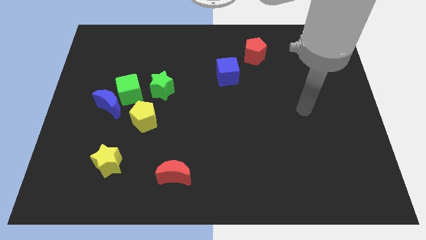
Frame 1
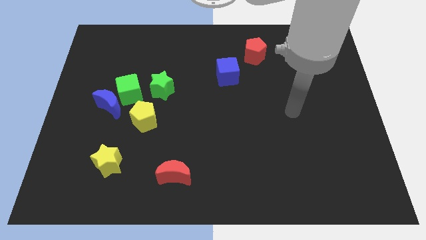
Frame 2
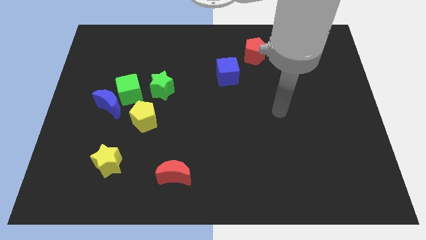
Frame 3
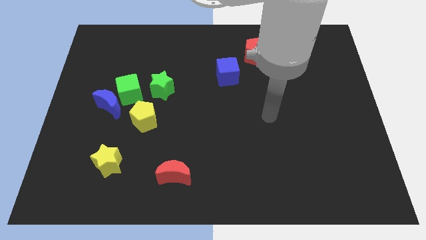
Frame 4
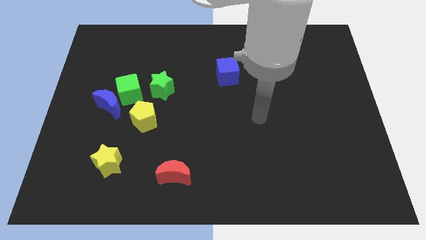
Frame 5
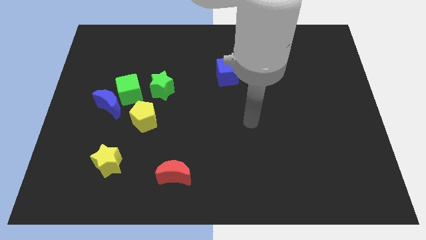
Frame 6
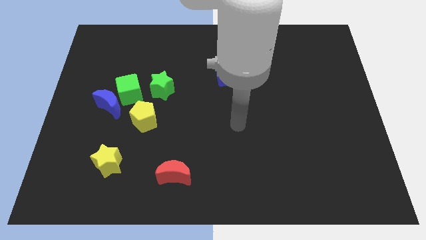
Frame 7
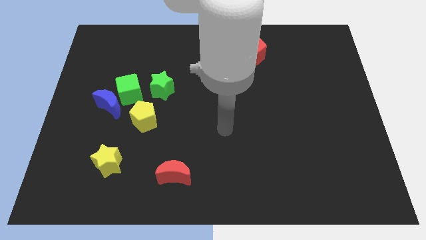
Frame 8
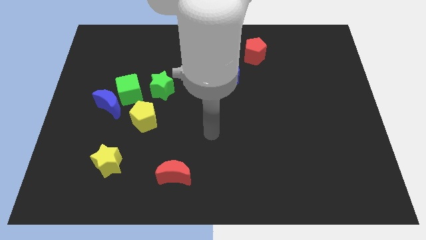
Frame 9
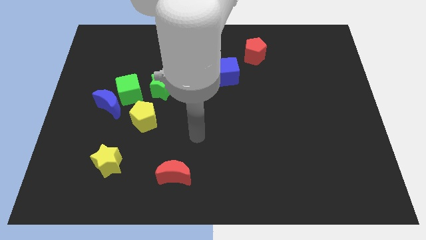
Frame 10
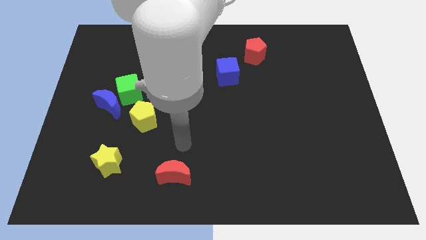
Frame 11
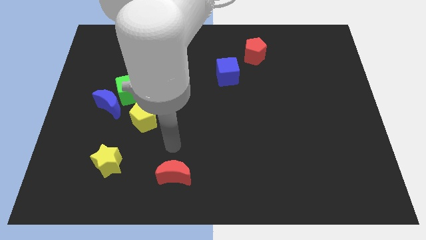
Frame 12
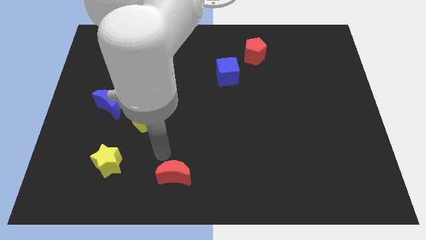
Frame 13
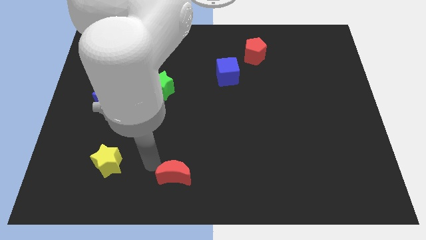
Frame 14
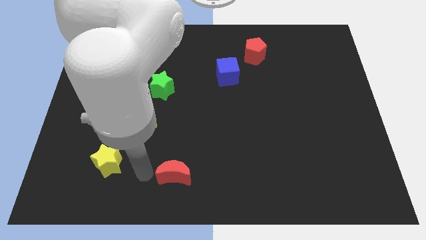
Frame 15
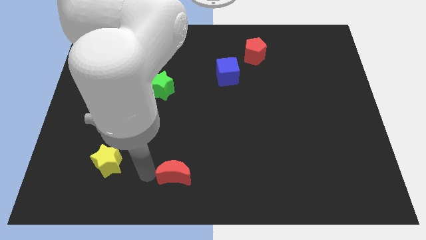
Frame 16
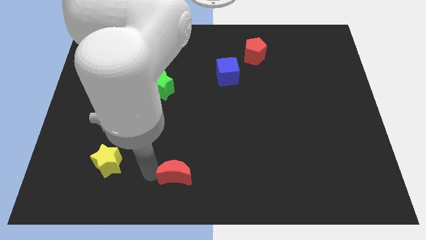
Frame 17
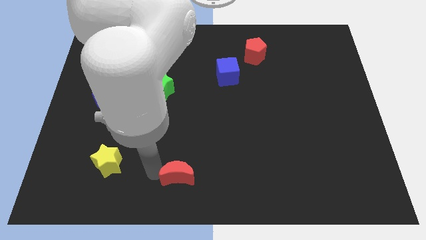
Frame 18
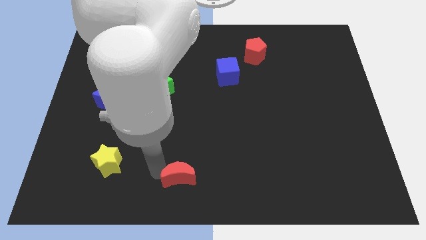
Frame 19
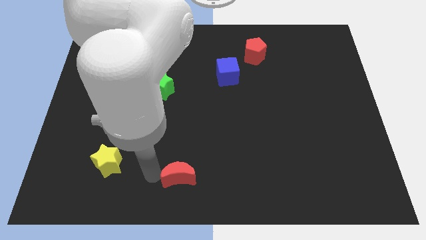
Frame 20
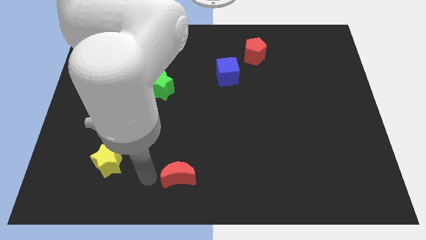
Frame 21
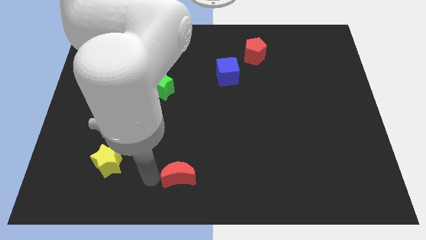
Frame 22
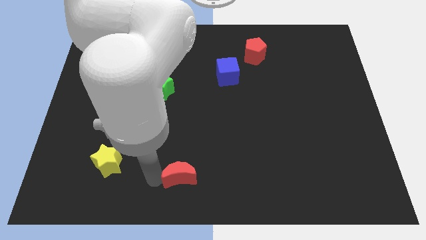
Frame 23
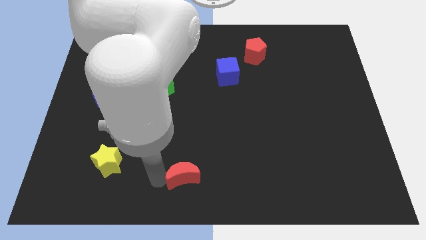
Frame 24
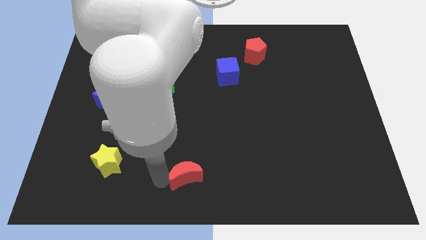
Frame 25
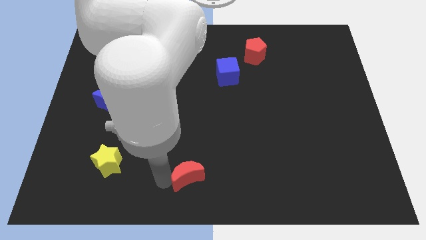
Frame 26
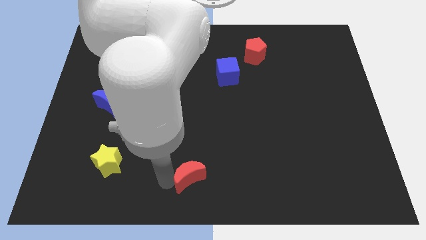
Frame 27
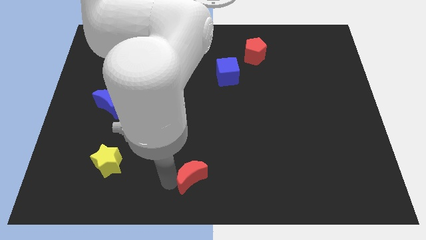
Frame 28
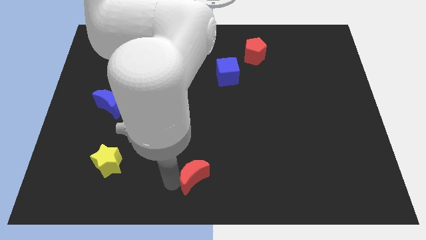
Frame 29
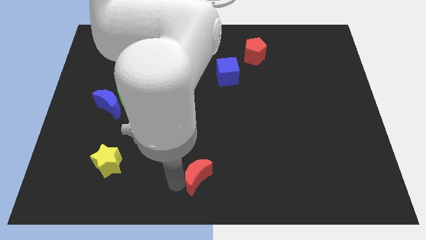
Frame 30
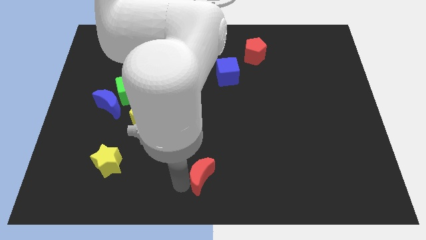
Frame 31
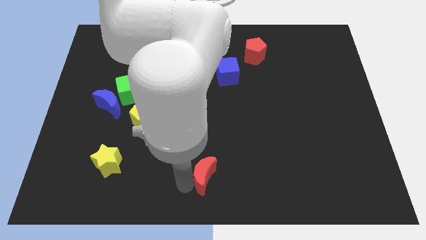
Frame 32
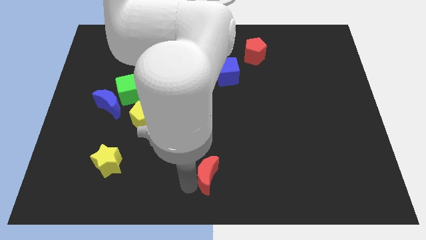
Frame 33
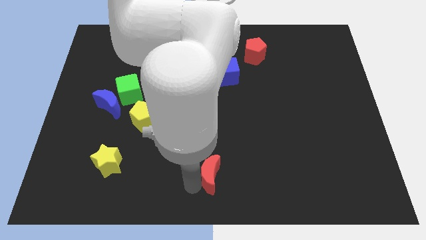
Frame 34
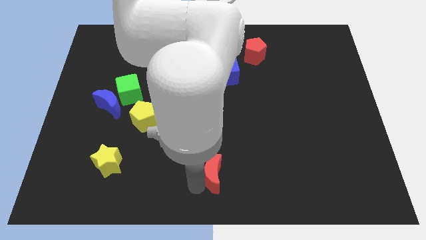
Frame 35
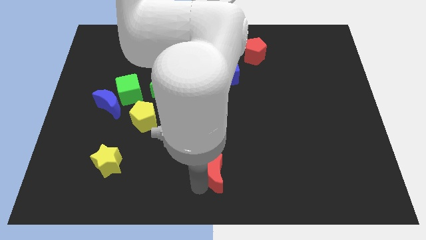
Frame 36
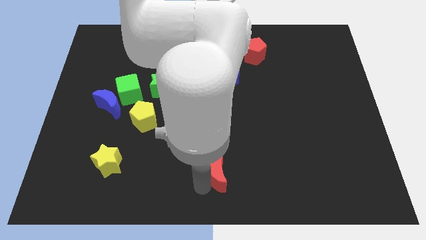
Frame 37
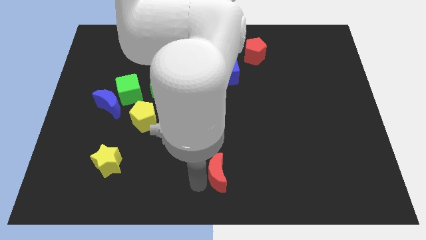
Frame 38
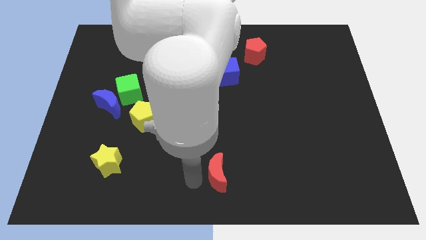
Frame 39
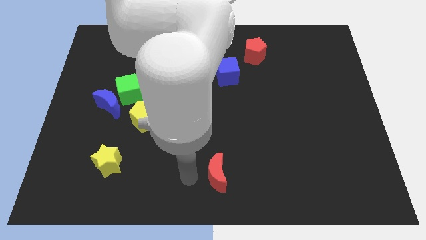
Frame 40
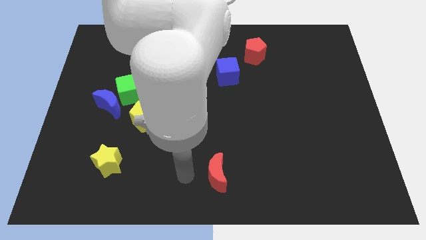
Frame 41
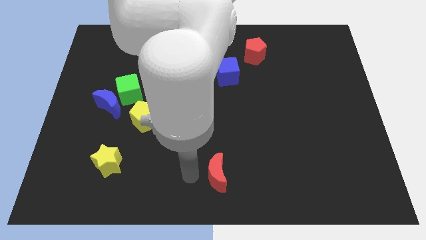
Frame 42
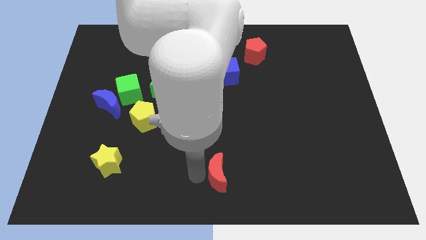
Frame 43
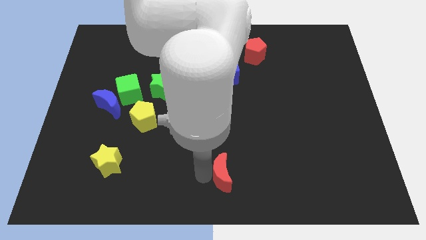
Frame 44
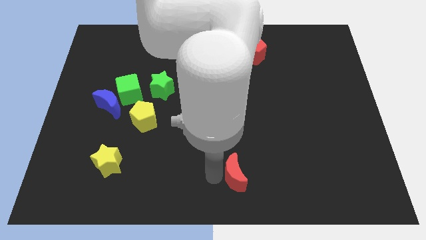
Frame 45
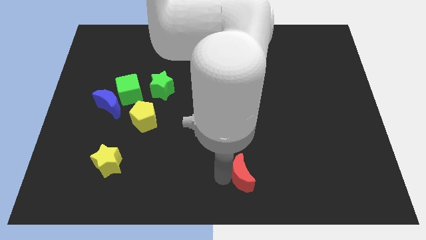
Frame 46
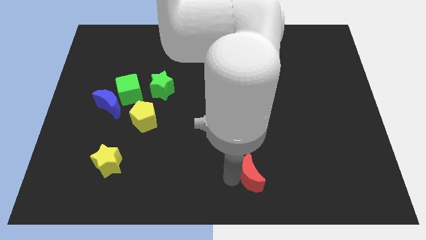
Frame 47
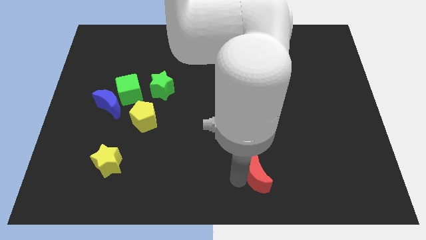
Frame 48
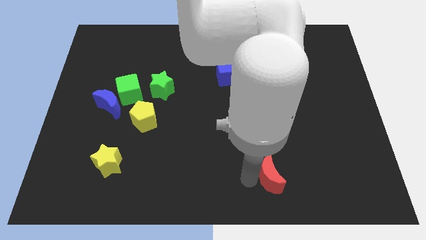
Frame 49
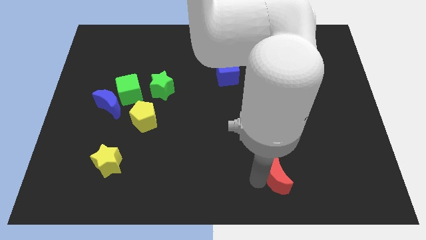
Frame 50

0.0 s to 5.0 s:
move the red moon right

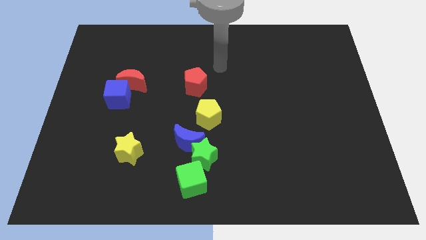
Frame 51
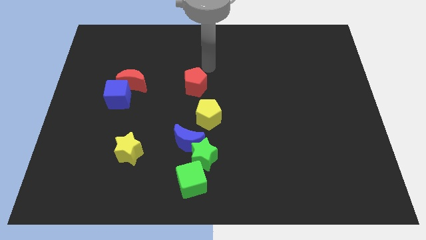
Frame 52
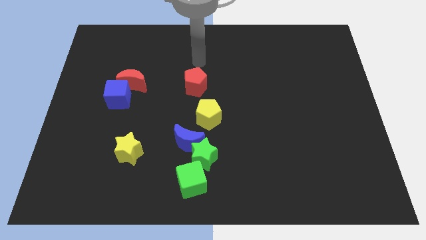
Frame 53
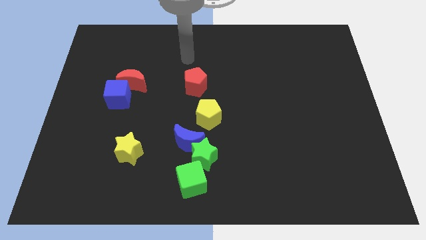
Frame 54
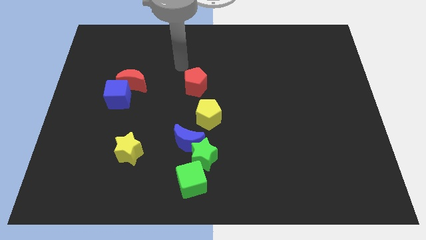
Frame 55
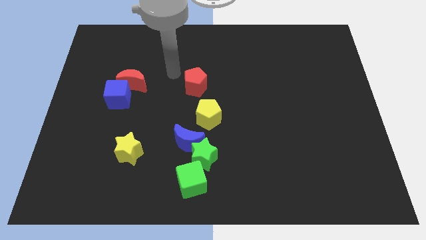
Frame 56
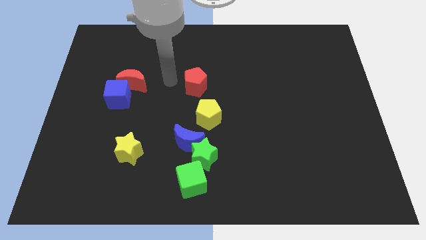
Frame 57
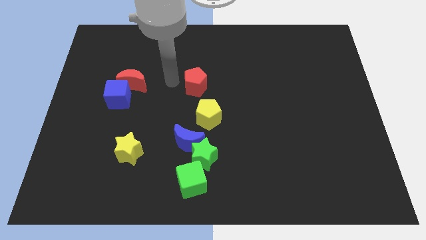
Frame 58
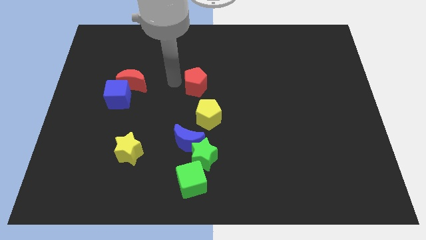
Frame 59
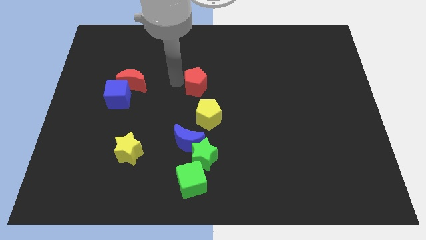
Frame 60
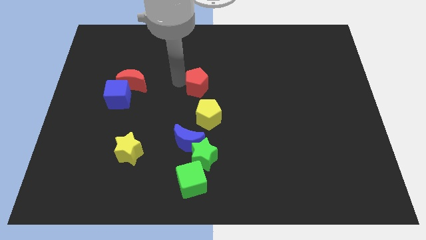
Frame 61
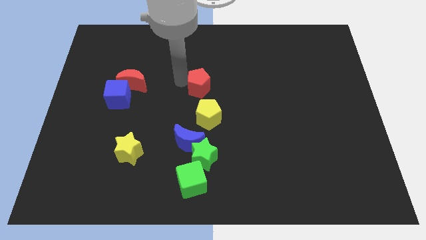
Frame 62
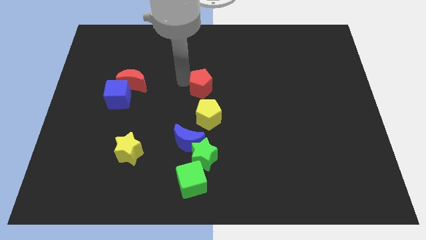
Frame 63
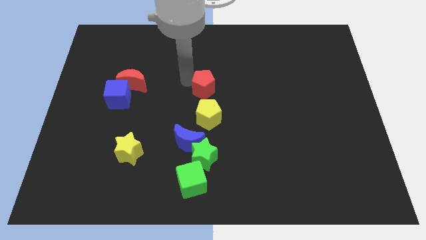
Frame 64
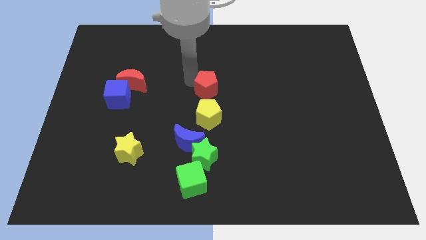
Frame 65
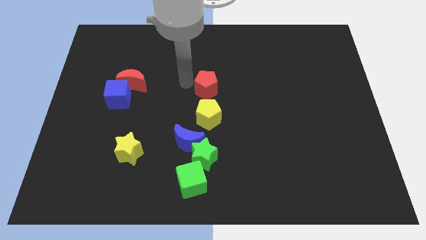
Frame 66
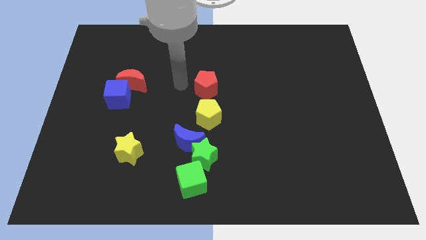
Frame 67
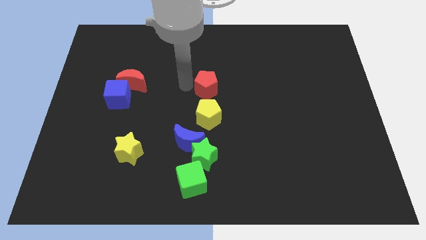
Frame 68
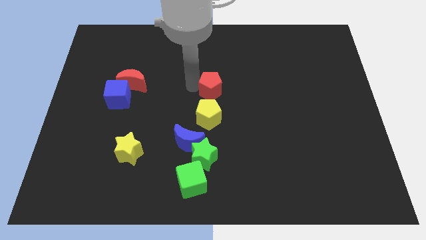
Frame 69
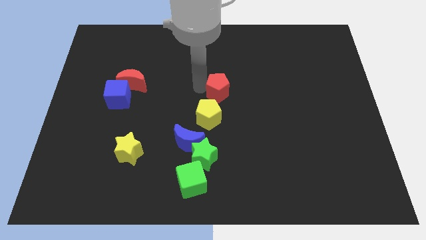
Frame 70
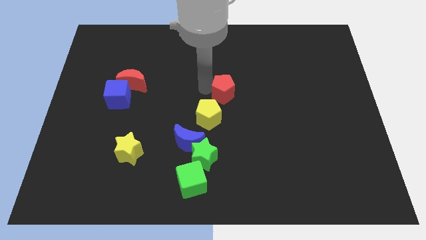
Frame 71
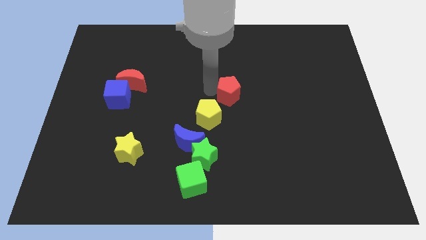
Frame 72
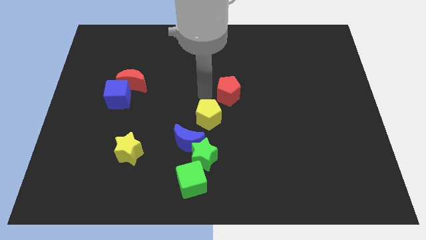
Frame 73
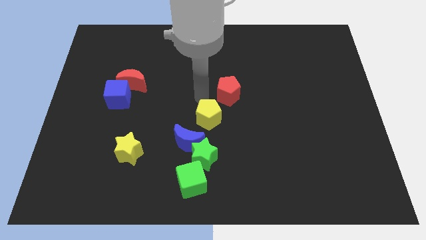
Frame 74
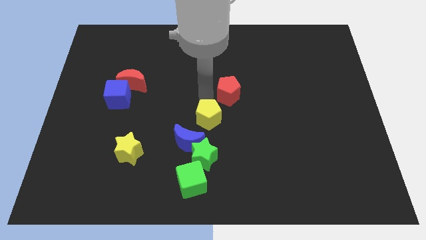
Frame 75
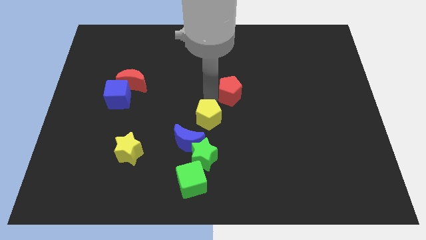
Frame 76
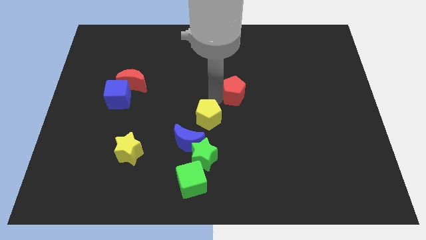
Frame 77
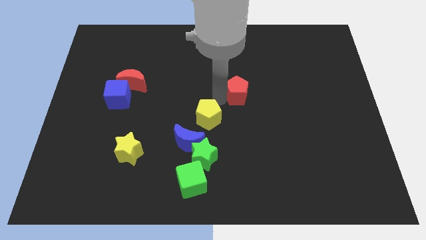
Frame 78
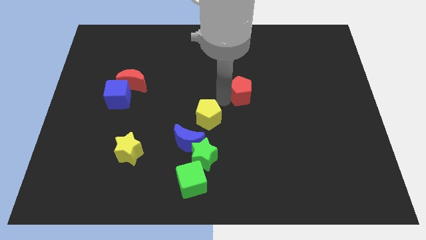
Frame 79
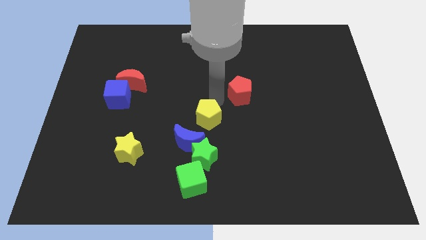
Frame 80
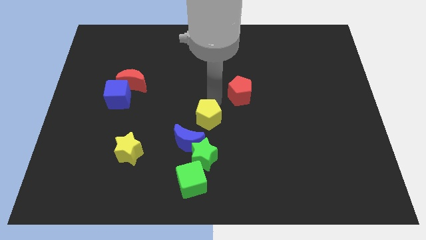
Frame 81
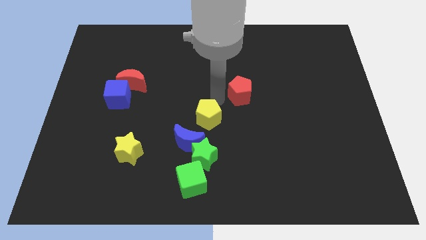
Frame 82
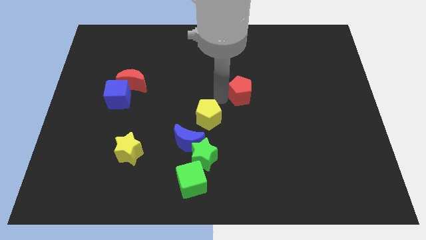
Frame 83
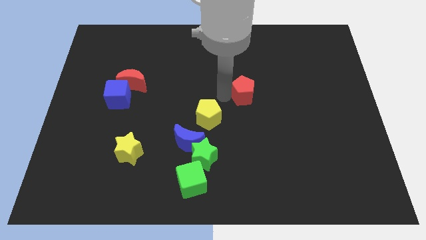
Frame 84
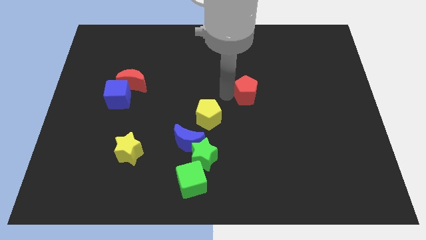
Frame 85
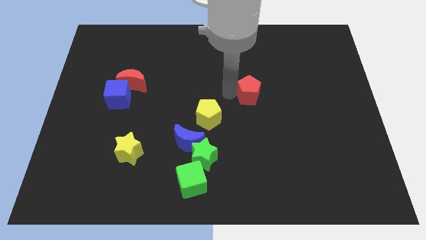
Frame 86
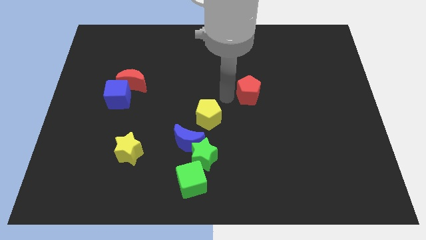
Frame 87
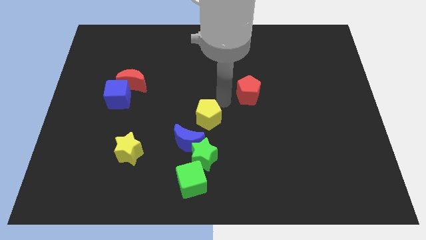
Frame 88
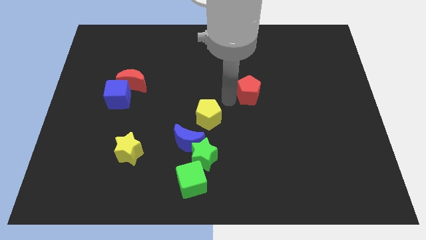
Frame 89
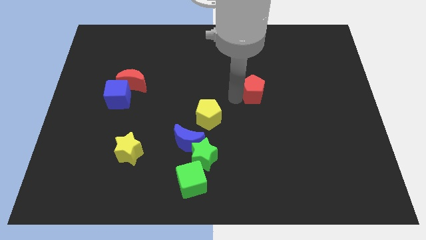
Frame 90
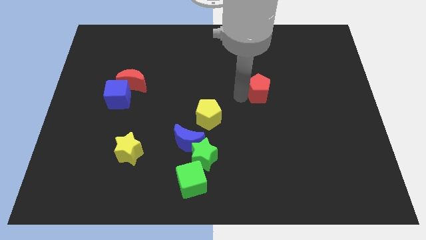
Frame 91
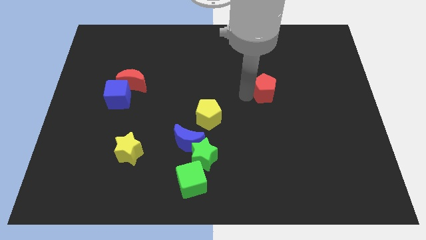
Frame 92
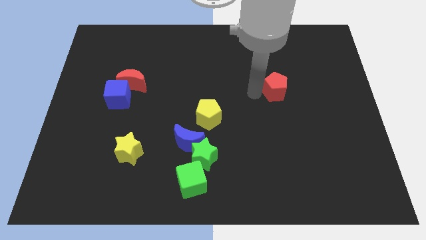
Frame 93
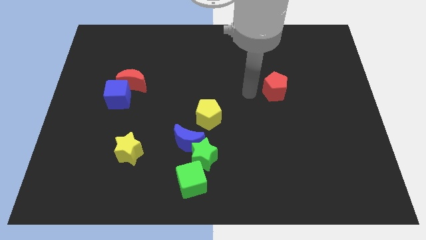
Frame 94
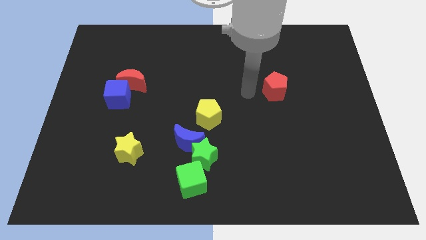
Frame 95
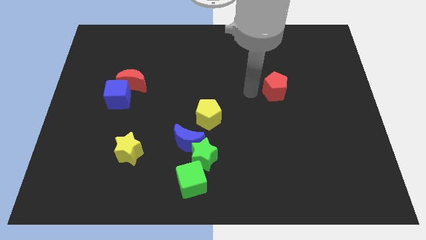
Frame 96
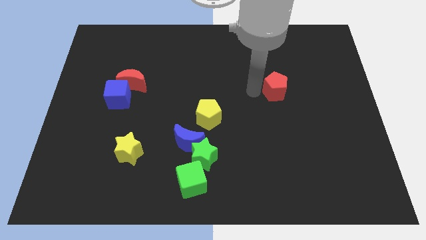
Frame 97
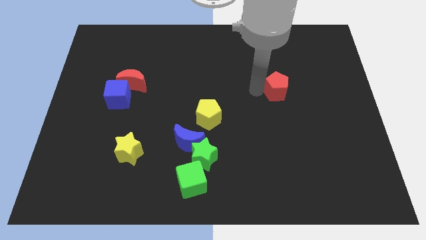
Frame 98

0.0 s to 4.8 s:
push the red pentagon right
